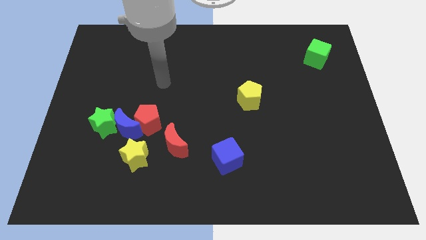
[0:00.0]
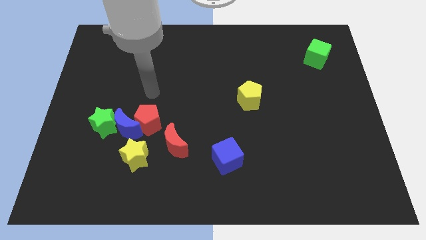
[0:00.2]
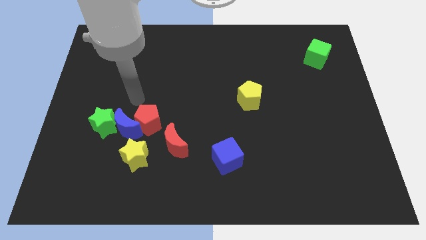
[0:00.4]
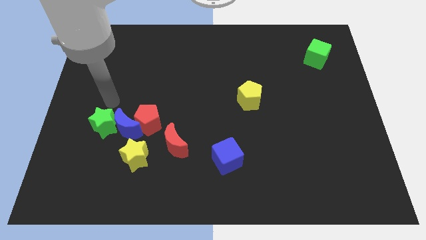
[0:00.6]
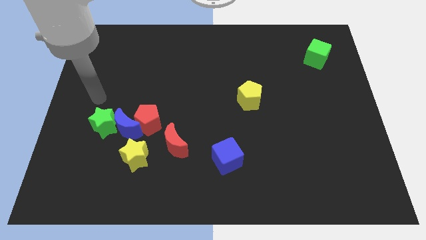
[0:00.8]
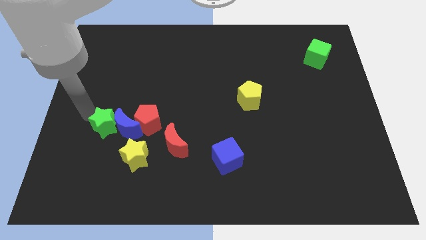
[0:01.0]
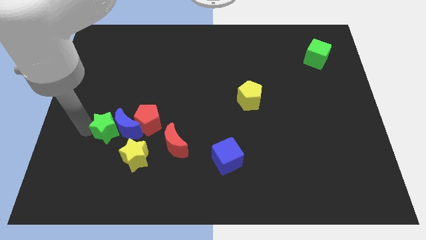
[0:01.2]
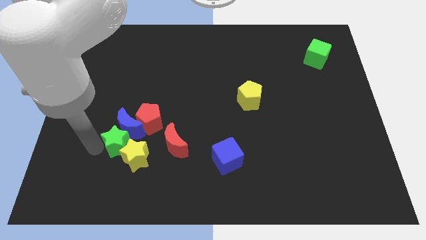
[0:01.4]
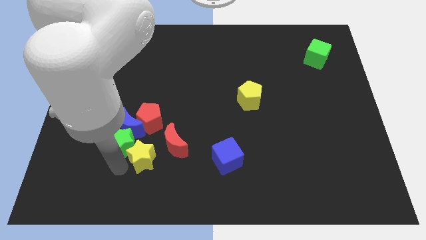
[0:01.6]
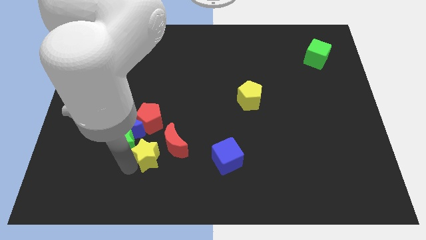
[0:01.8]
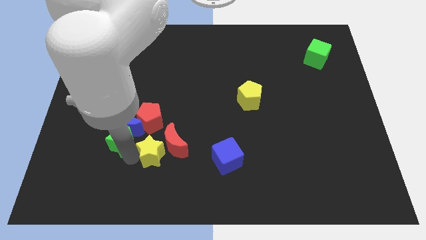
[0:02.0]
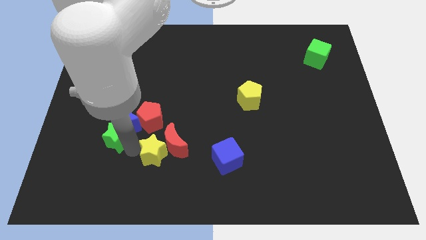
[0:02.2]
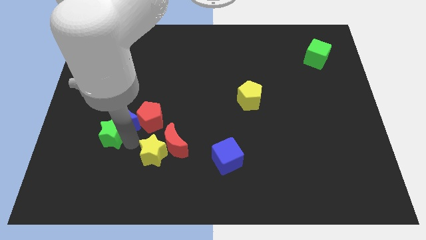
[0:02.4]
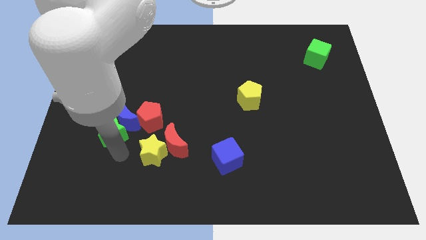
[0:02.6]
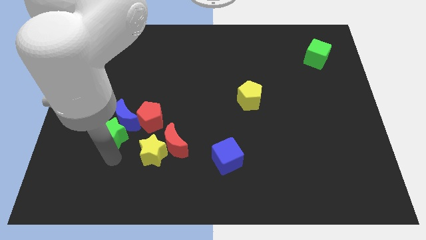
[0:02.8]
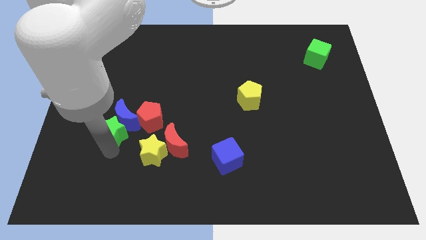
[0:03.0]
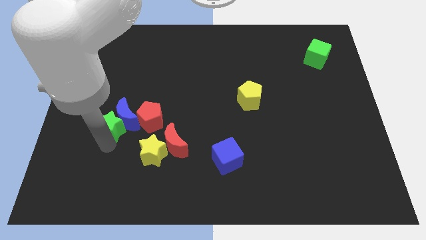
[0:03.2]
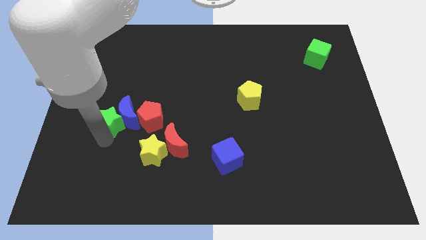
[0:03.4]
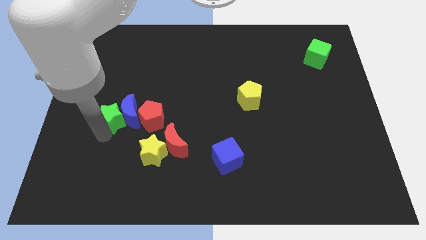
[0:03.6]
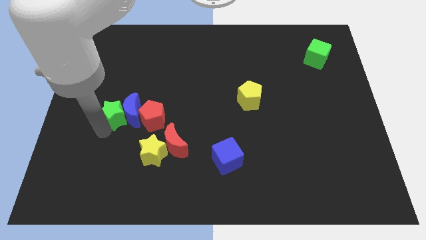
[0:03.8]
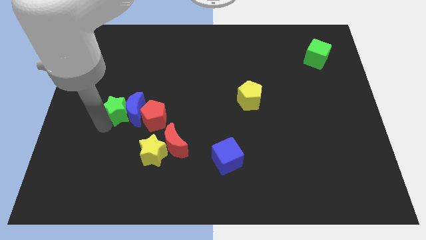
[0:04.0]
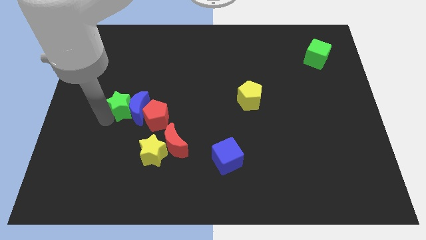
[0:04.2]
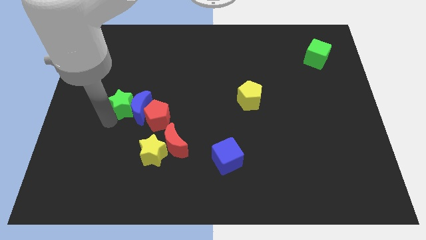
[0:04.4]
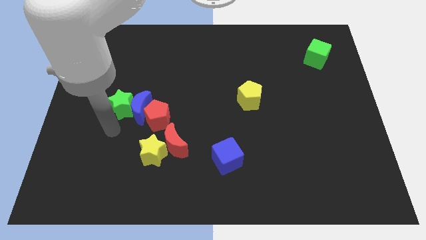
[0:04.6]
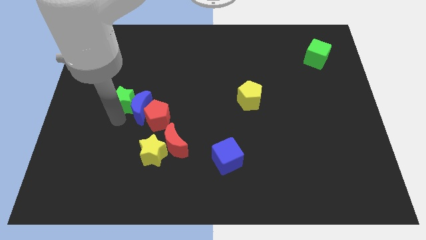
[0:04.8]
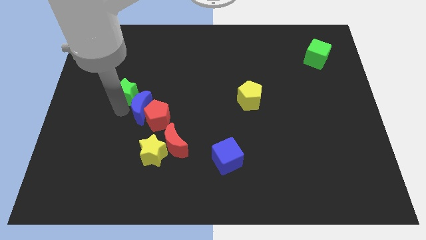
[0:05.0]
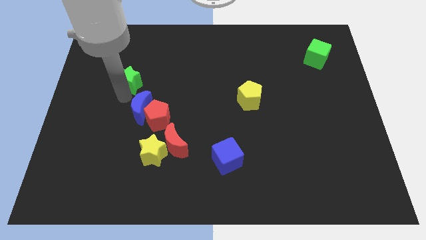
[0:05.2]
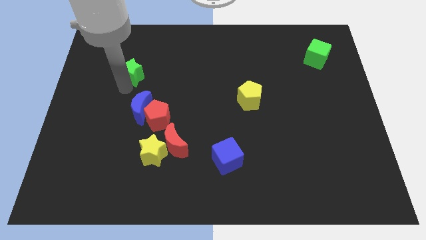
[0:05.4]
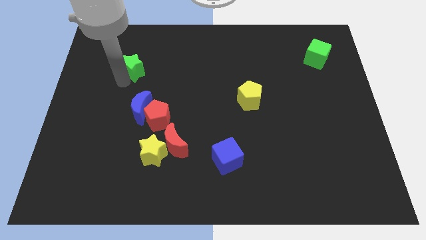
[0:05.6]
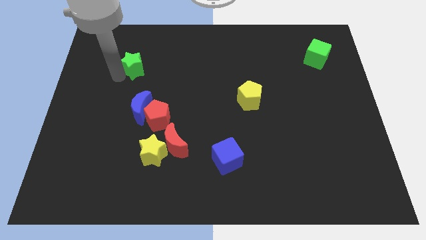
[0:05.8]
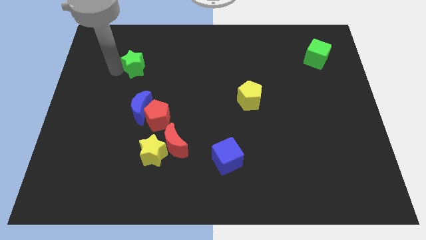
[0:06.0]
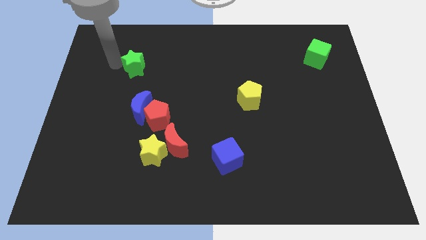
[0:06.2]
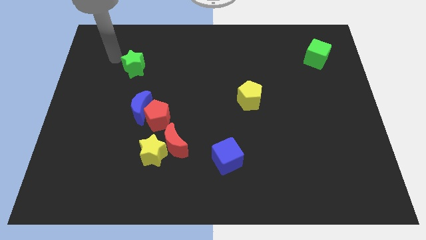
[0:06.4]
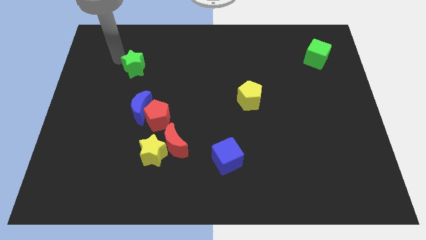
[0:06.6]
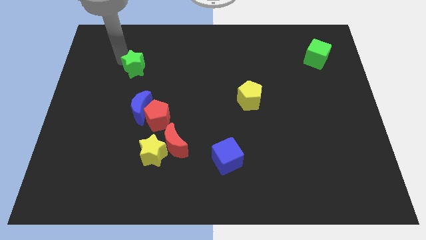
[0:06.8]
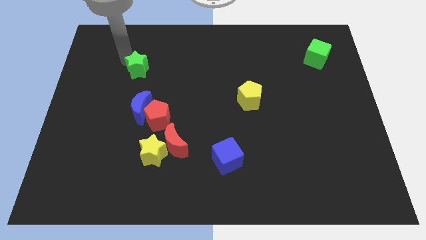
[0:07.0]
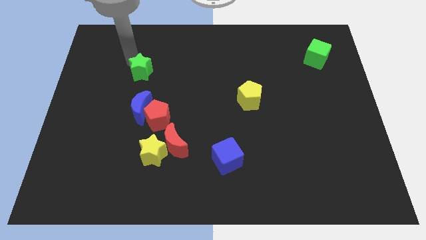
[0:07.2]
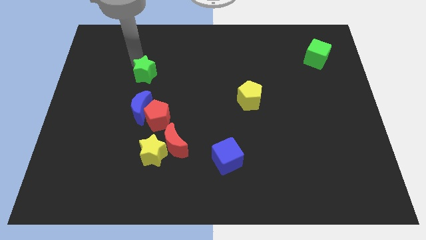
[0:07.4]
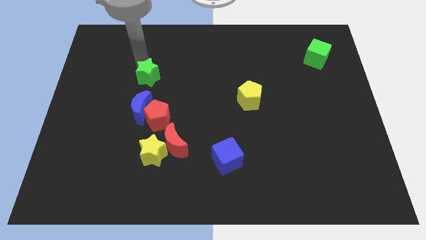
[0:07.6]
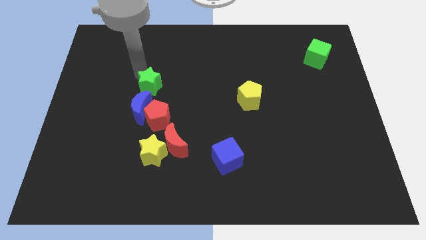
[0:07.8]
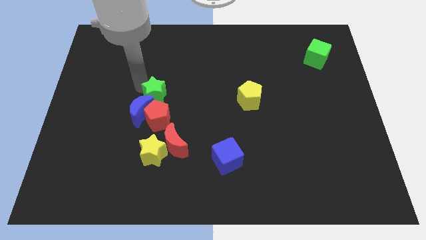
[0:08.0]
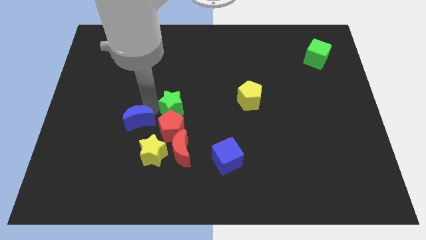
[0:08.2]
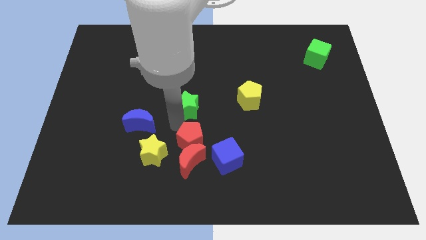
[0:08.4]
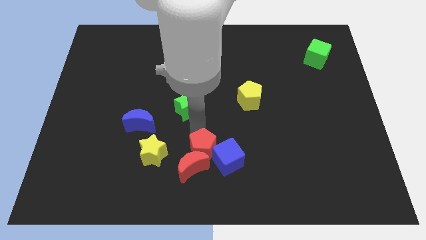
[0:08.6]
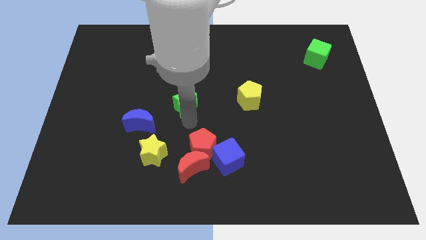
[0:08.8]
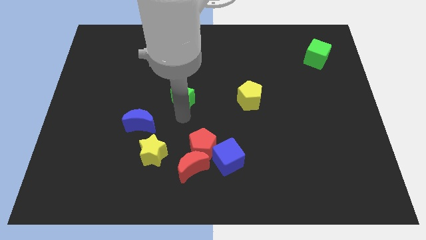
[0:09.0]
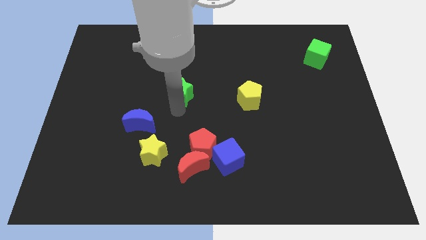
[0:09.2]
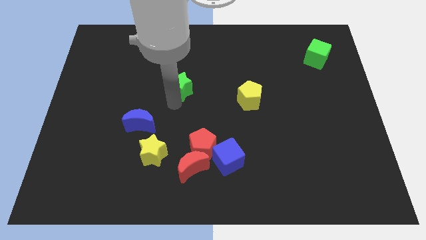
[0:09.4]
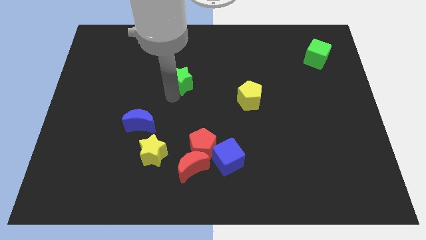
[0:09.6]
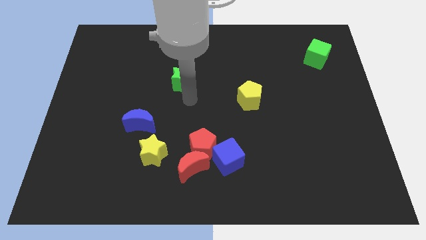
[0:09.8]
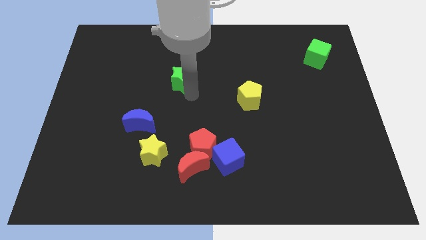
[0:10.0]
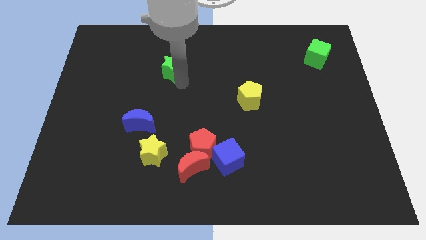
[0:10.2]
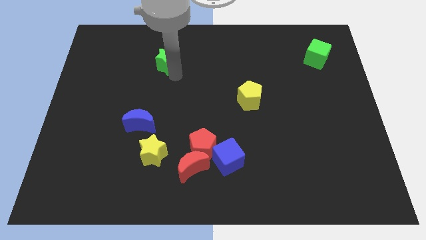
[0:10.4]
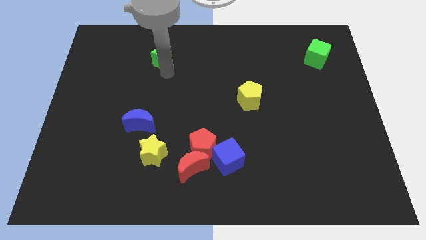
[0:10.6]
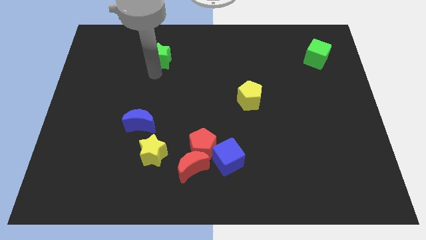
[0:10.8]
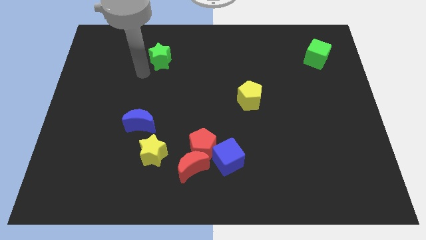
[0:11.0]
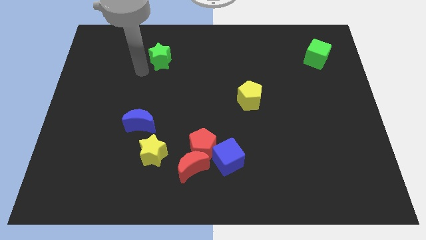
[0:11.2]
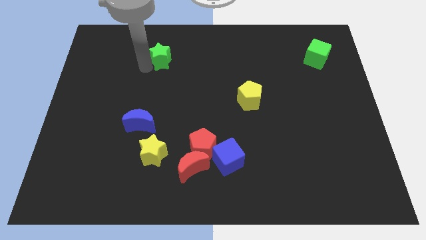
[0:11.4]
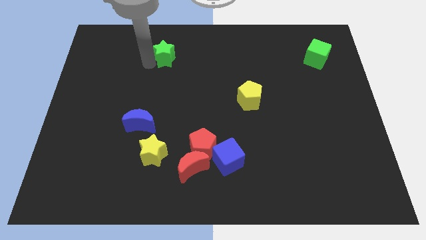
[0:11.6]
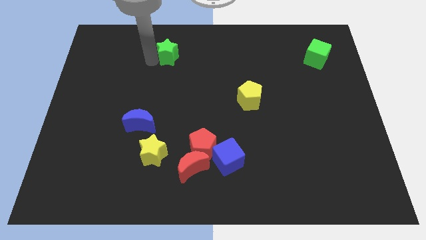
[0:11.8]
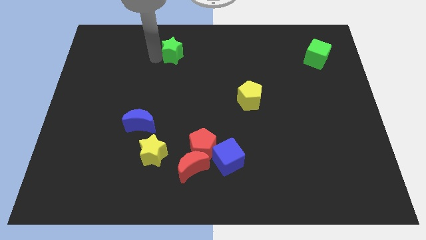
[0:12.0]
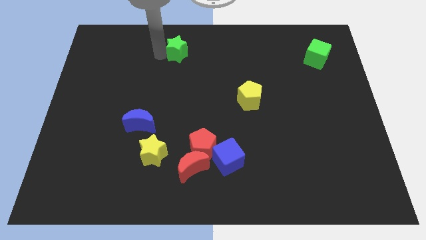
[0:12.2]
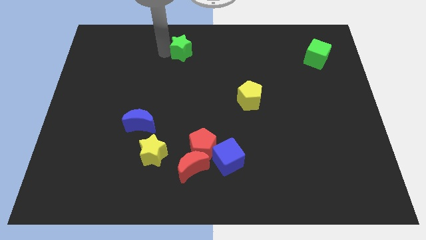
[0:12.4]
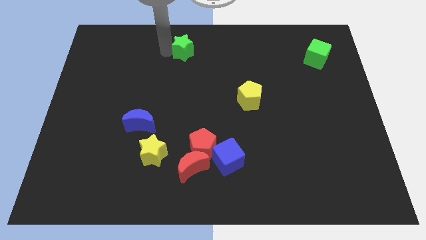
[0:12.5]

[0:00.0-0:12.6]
push the green star to the top
